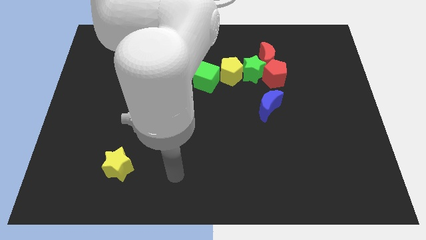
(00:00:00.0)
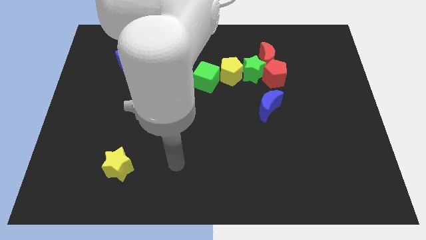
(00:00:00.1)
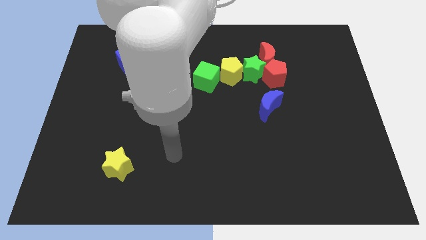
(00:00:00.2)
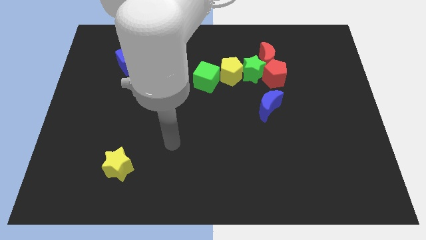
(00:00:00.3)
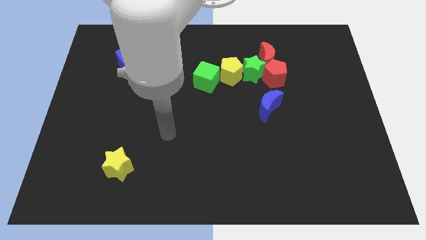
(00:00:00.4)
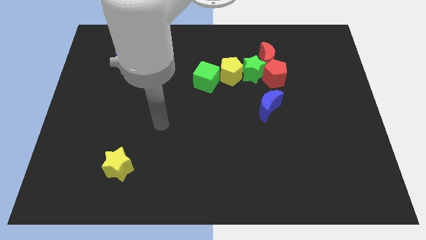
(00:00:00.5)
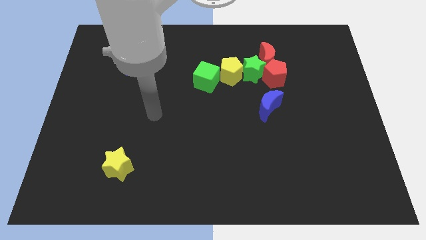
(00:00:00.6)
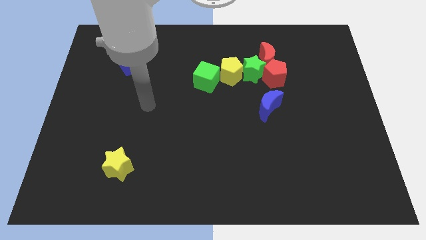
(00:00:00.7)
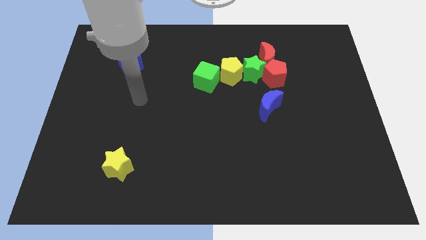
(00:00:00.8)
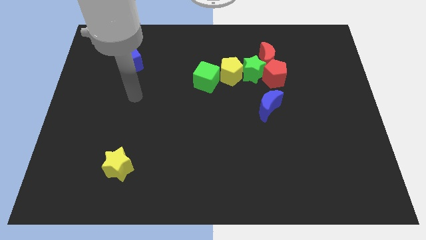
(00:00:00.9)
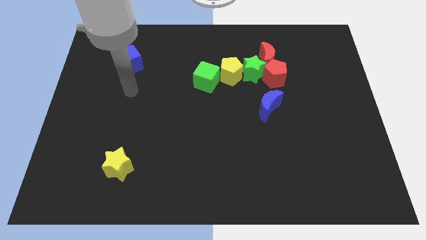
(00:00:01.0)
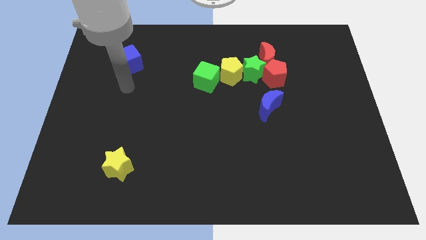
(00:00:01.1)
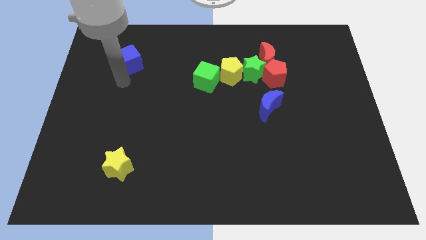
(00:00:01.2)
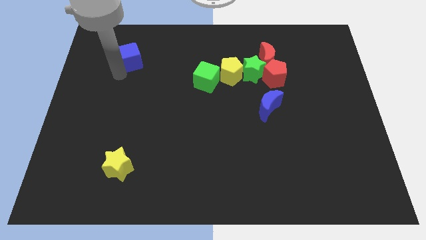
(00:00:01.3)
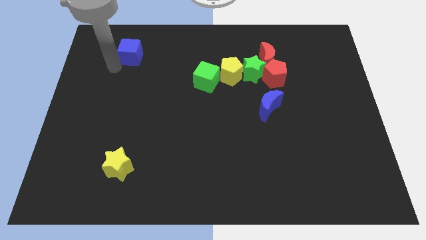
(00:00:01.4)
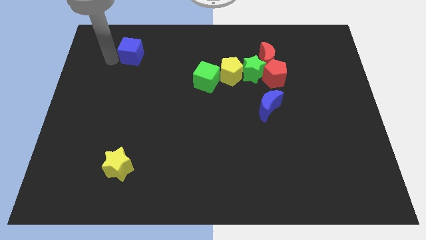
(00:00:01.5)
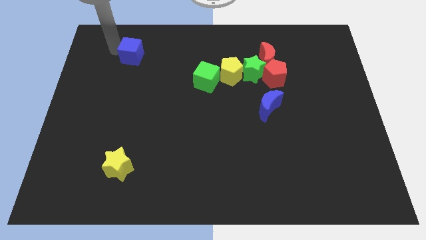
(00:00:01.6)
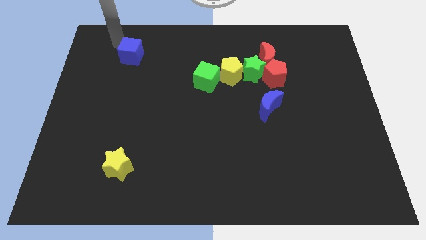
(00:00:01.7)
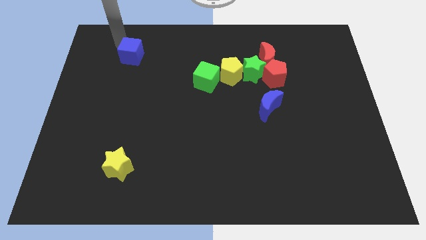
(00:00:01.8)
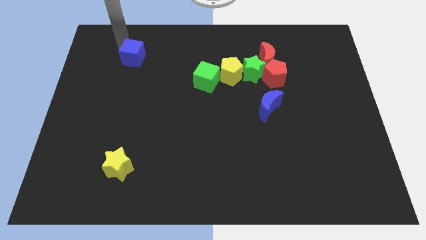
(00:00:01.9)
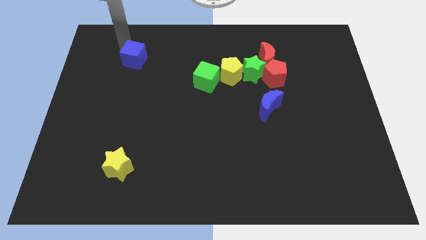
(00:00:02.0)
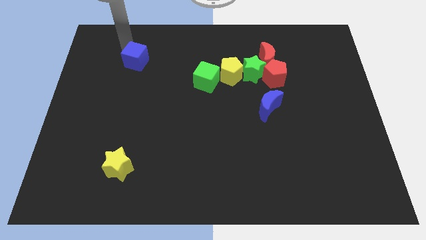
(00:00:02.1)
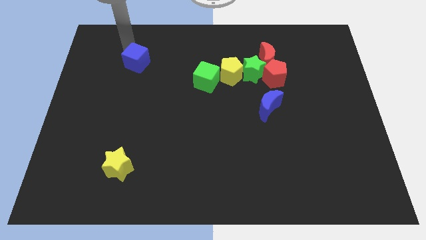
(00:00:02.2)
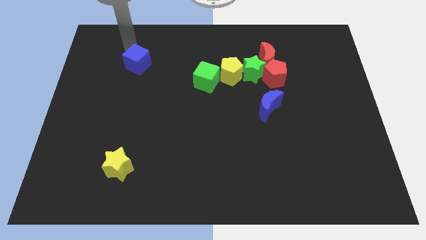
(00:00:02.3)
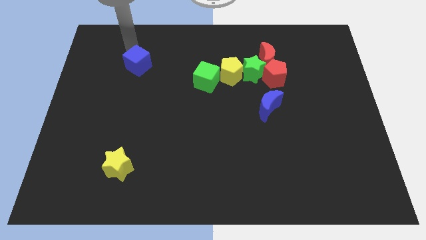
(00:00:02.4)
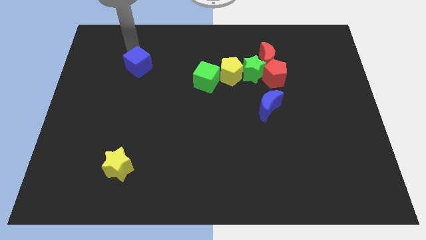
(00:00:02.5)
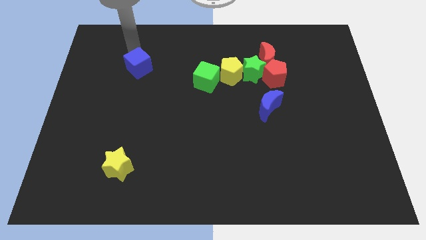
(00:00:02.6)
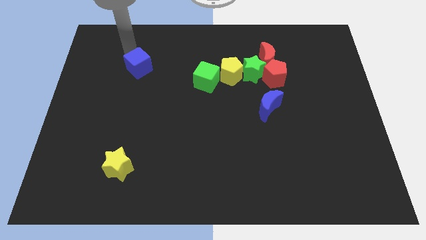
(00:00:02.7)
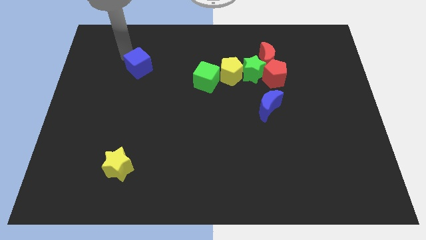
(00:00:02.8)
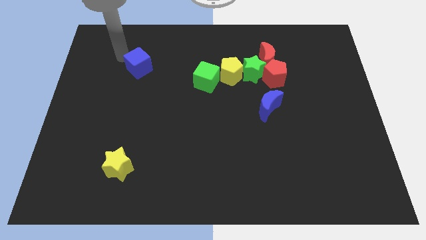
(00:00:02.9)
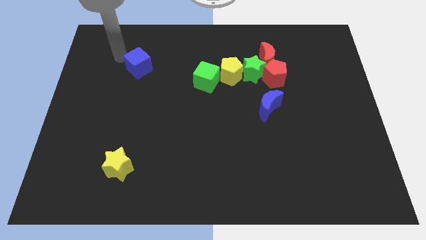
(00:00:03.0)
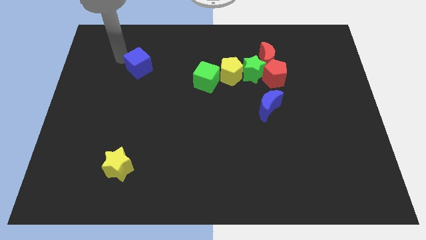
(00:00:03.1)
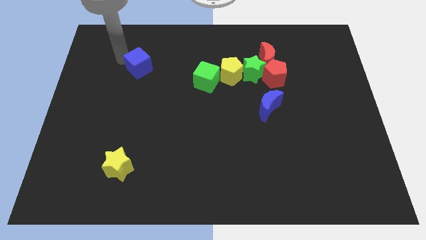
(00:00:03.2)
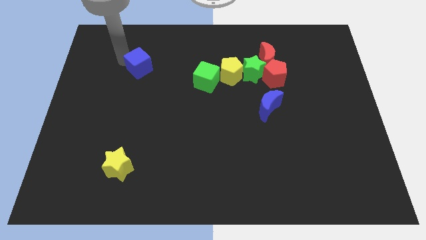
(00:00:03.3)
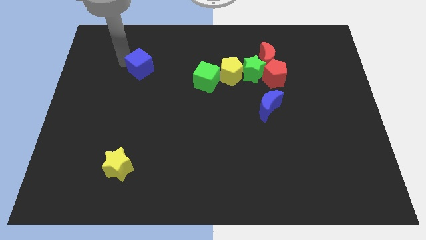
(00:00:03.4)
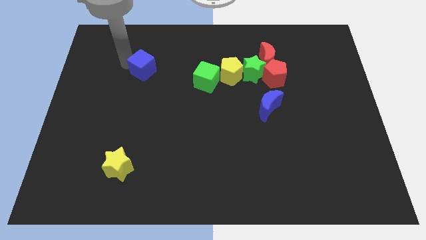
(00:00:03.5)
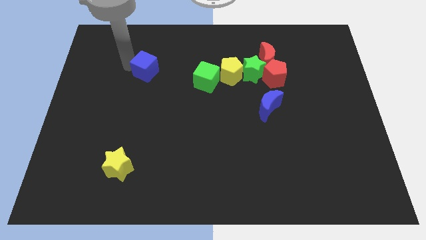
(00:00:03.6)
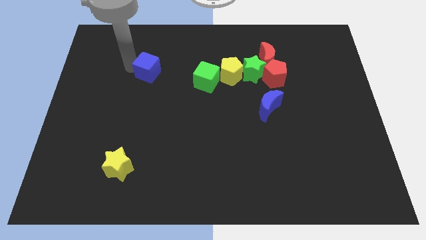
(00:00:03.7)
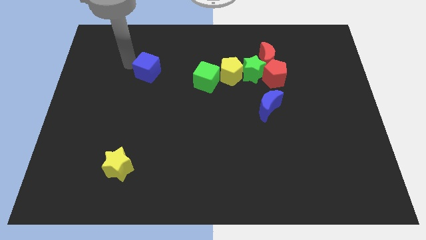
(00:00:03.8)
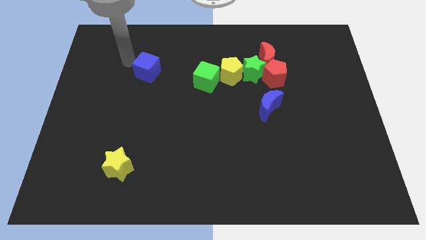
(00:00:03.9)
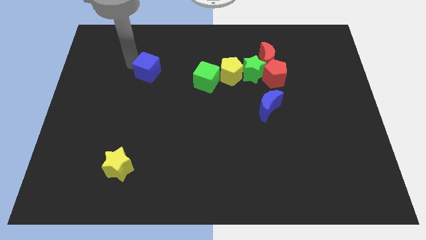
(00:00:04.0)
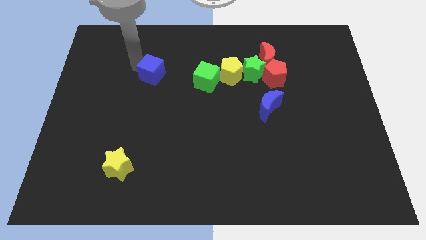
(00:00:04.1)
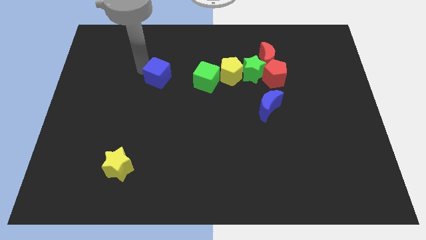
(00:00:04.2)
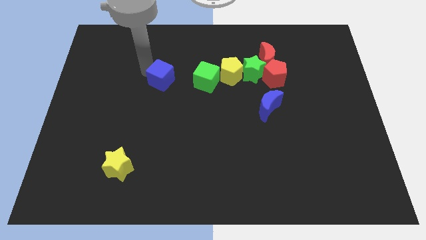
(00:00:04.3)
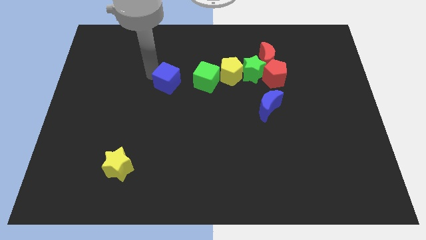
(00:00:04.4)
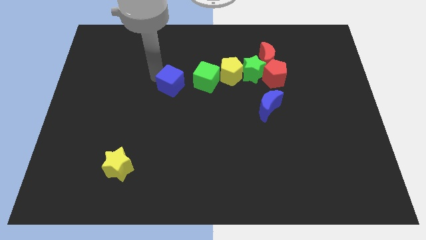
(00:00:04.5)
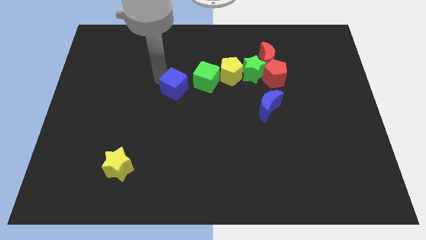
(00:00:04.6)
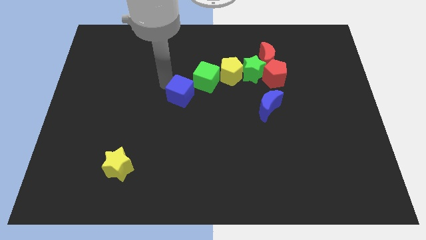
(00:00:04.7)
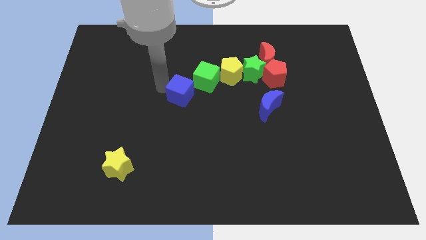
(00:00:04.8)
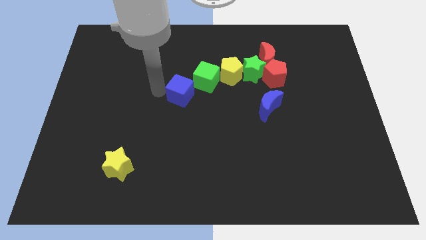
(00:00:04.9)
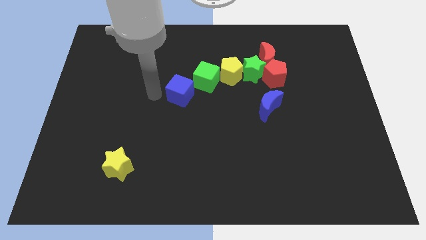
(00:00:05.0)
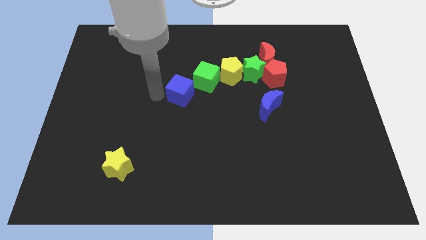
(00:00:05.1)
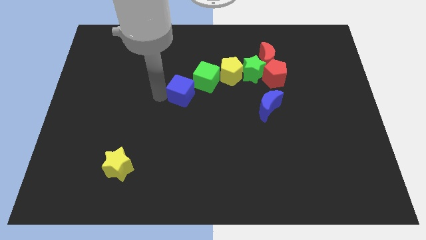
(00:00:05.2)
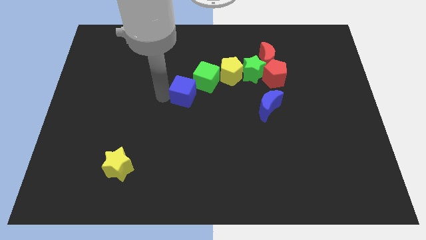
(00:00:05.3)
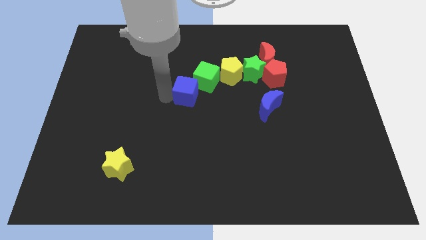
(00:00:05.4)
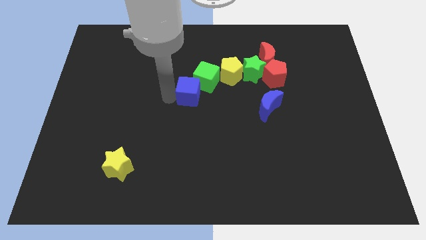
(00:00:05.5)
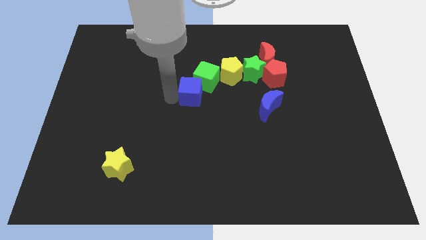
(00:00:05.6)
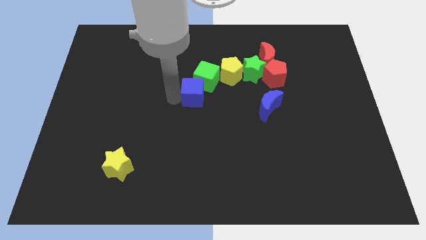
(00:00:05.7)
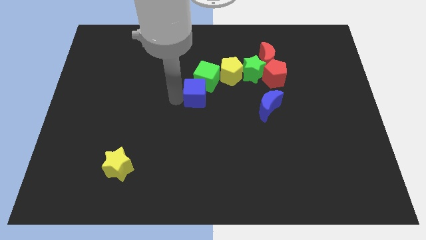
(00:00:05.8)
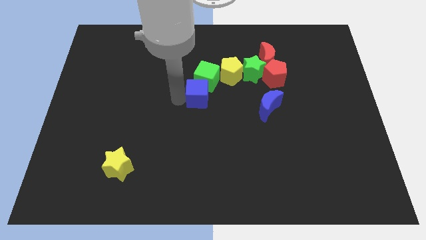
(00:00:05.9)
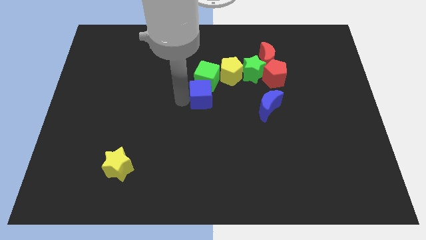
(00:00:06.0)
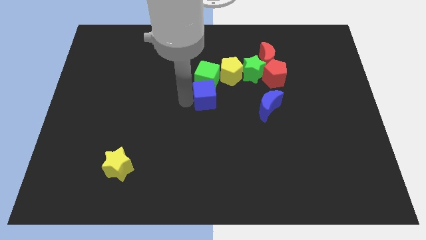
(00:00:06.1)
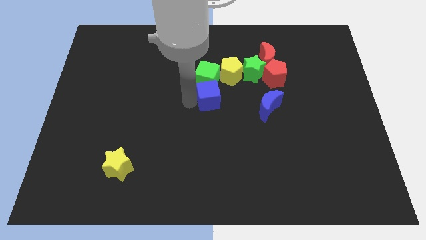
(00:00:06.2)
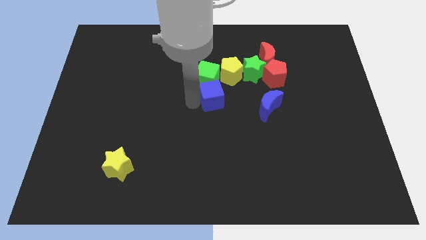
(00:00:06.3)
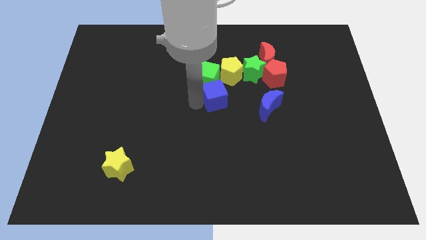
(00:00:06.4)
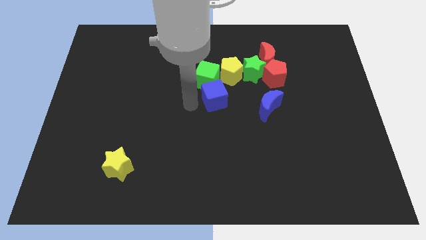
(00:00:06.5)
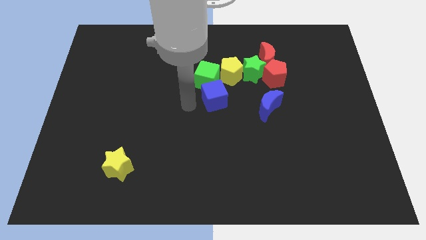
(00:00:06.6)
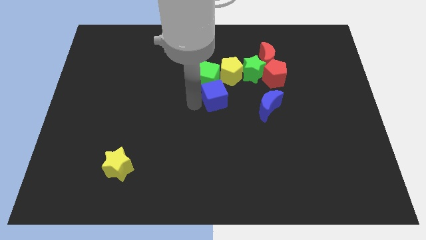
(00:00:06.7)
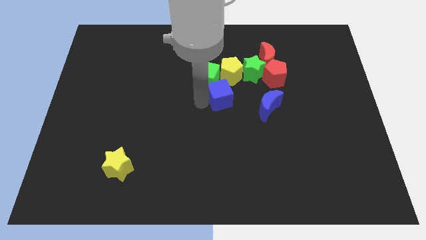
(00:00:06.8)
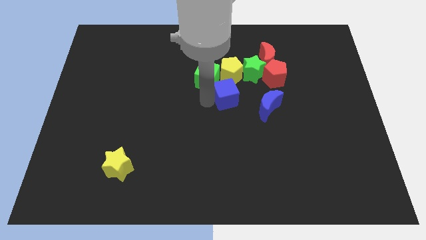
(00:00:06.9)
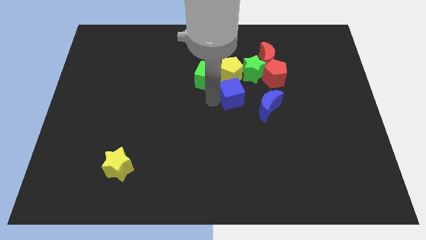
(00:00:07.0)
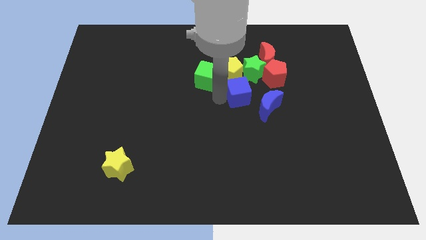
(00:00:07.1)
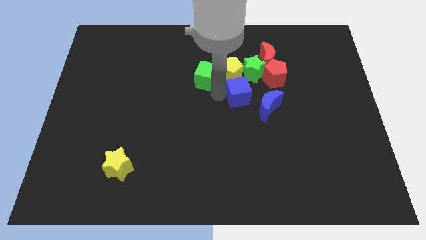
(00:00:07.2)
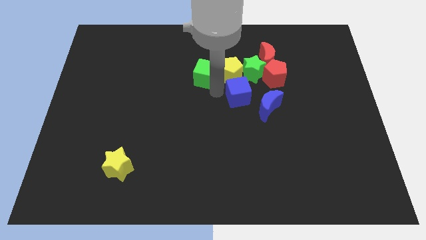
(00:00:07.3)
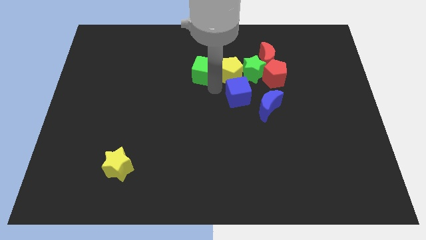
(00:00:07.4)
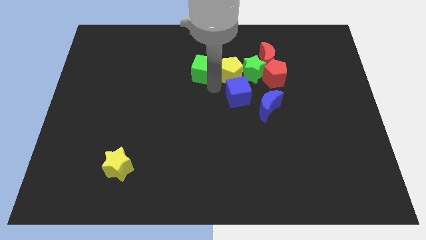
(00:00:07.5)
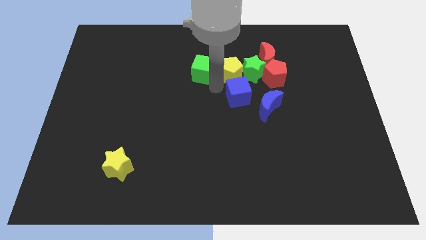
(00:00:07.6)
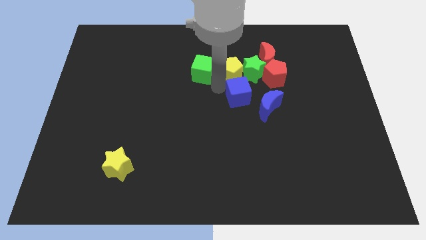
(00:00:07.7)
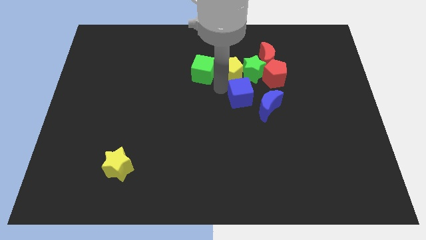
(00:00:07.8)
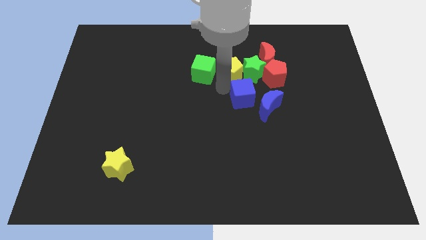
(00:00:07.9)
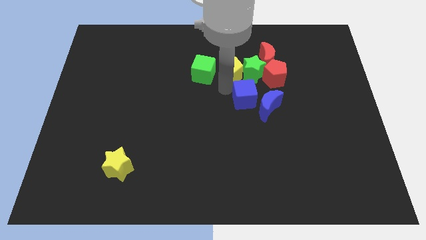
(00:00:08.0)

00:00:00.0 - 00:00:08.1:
push the blue cube next to the blue moon

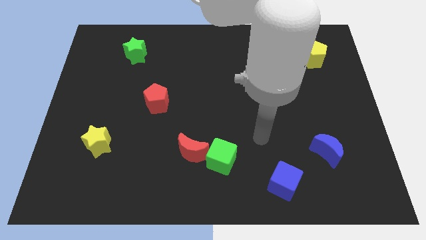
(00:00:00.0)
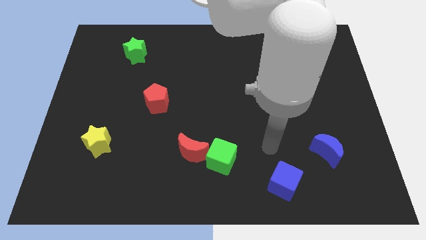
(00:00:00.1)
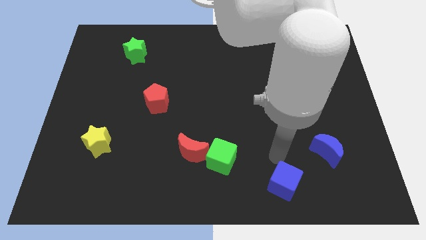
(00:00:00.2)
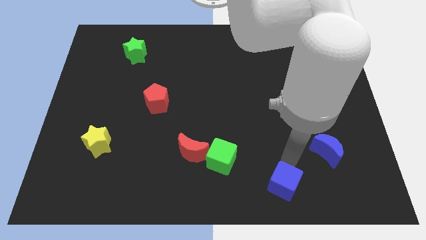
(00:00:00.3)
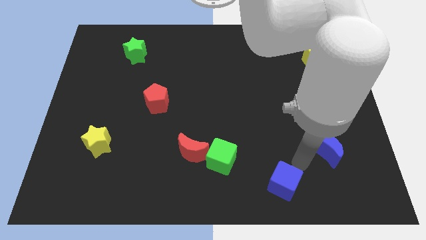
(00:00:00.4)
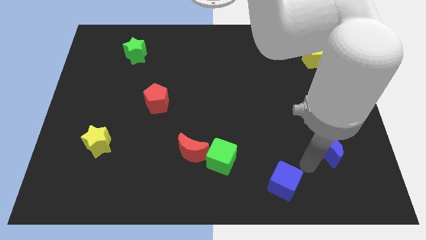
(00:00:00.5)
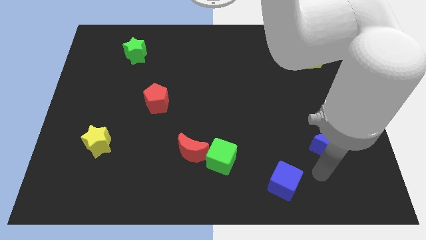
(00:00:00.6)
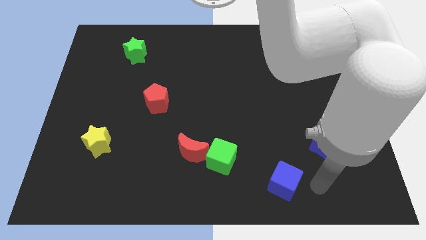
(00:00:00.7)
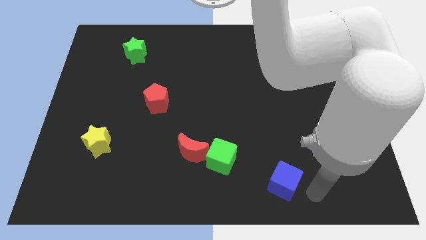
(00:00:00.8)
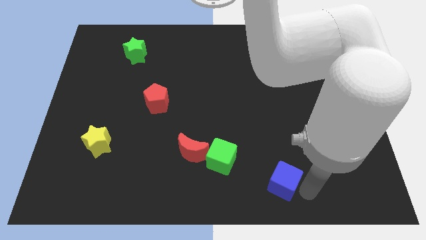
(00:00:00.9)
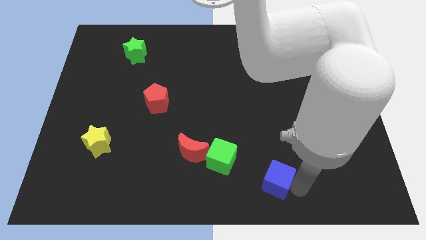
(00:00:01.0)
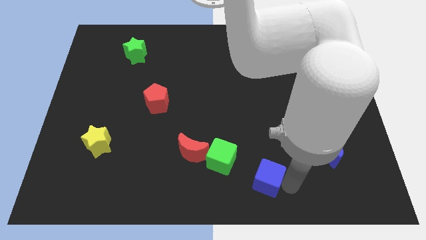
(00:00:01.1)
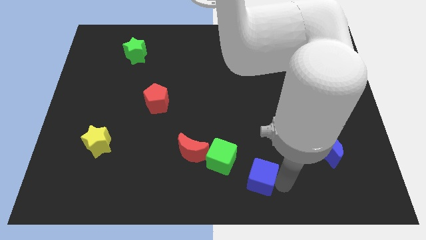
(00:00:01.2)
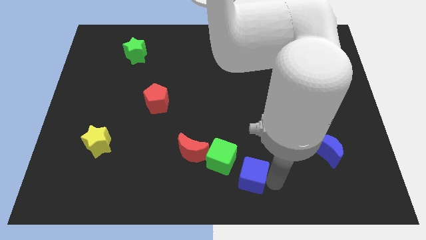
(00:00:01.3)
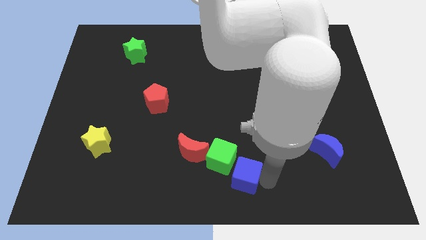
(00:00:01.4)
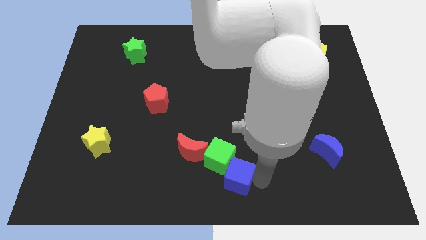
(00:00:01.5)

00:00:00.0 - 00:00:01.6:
slide the blue cube towards the green cube
